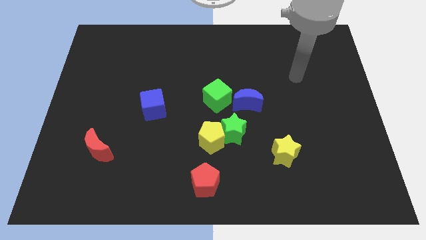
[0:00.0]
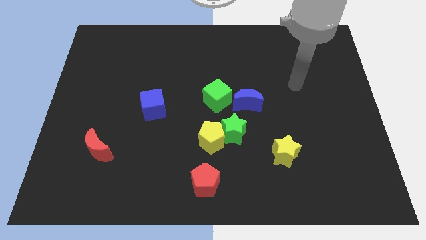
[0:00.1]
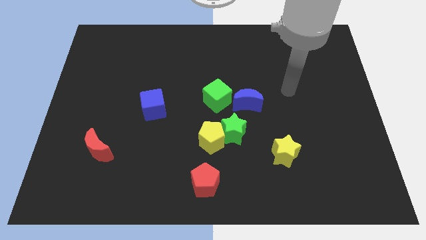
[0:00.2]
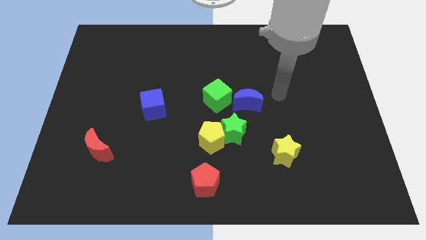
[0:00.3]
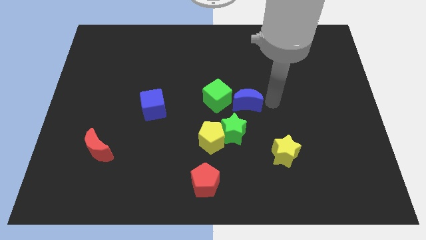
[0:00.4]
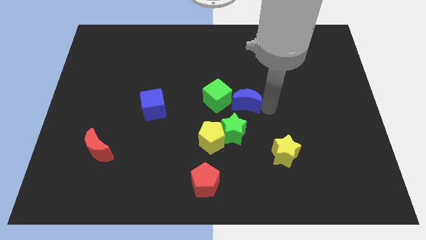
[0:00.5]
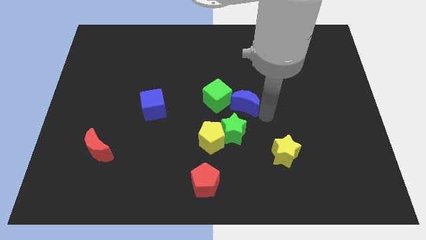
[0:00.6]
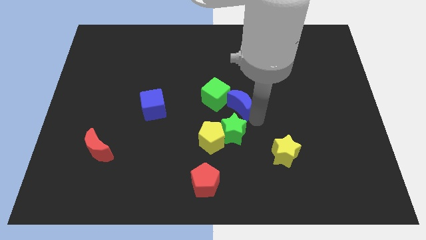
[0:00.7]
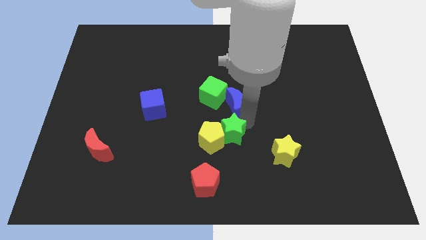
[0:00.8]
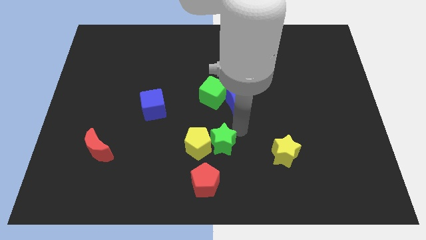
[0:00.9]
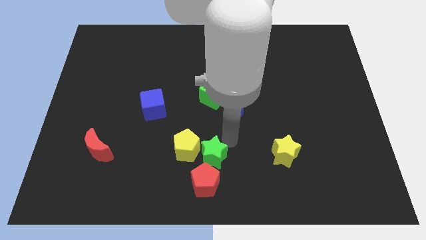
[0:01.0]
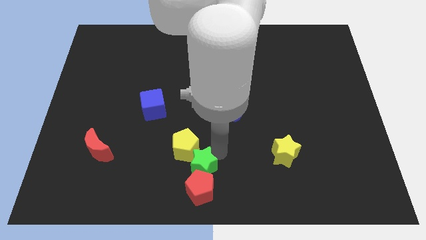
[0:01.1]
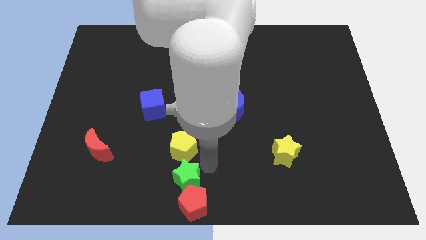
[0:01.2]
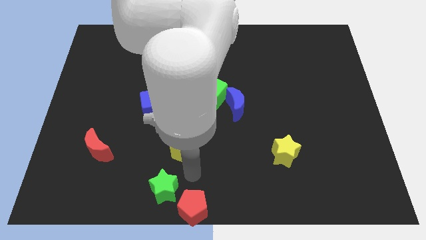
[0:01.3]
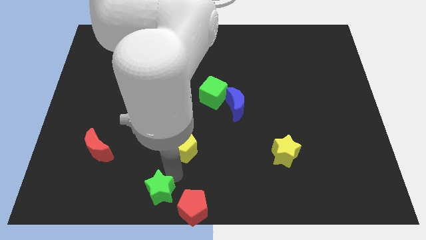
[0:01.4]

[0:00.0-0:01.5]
move the yellow pentagon away from the green star

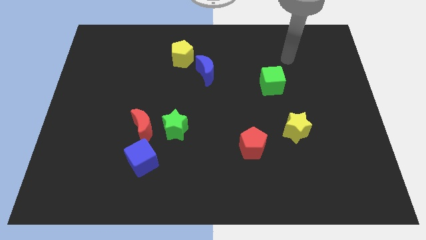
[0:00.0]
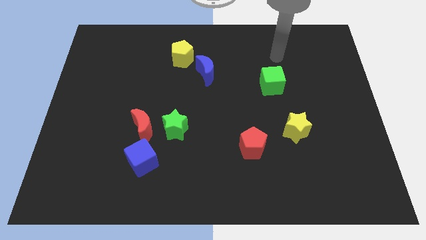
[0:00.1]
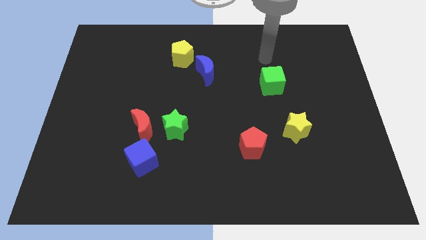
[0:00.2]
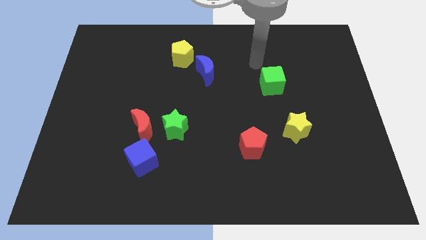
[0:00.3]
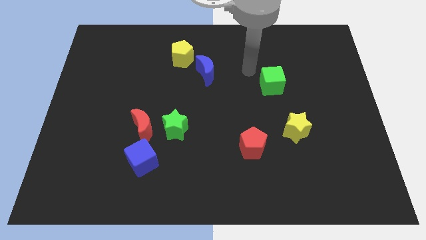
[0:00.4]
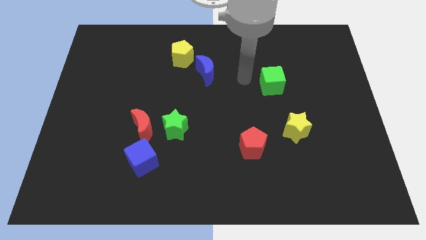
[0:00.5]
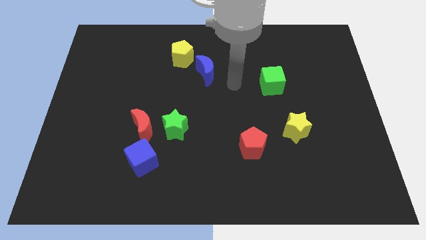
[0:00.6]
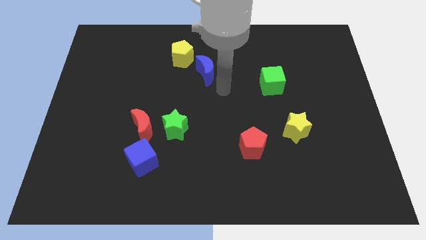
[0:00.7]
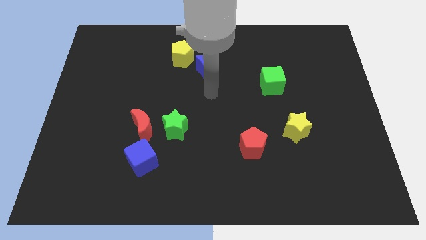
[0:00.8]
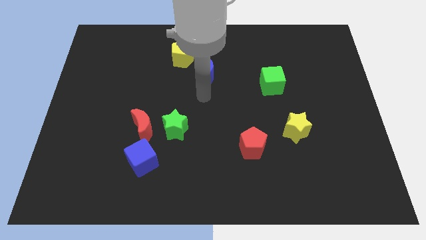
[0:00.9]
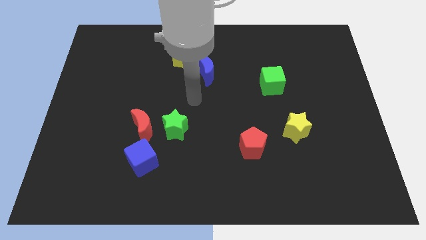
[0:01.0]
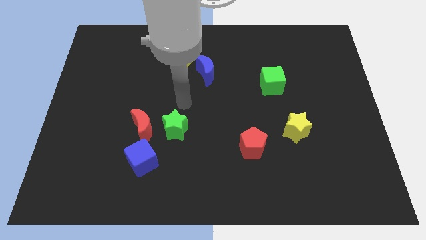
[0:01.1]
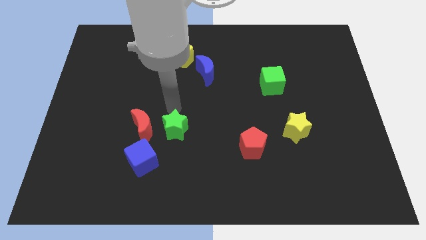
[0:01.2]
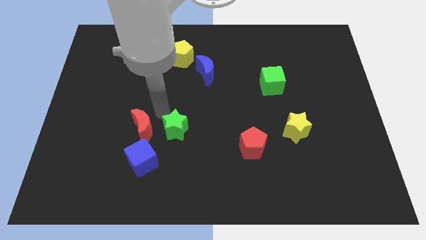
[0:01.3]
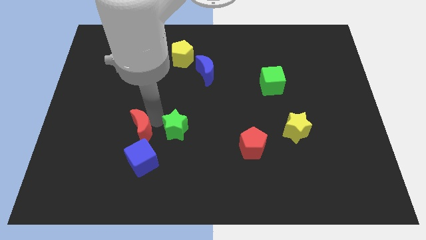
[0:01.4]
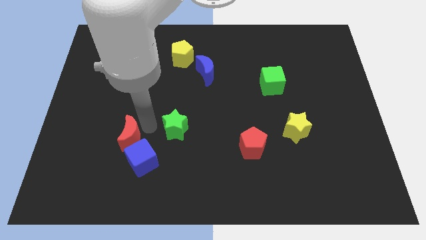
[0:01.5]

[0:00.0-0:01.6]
move the green star away from the red moon

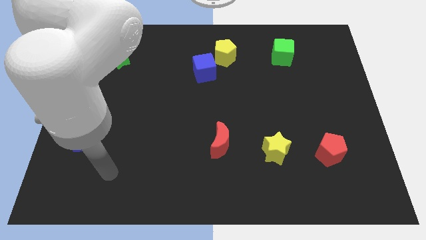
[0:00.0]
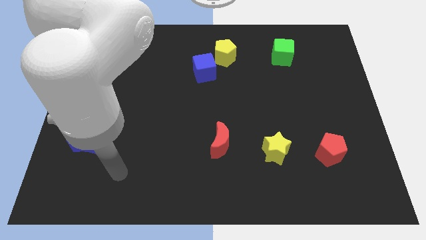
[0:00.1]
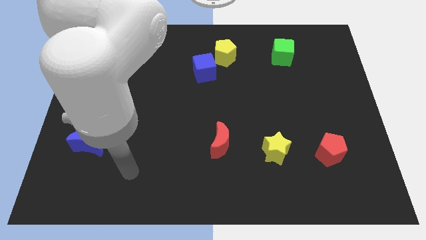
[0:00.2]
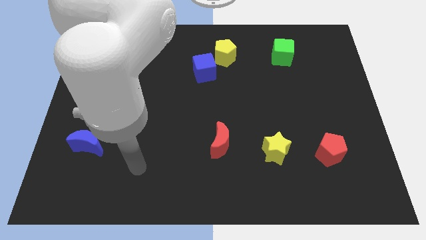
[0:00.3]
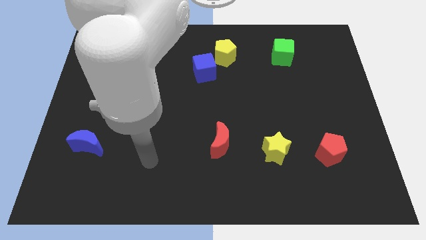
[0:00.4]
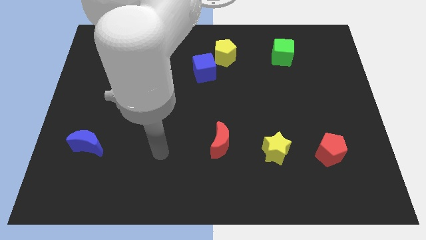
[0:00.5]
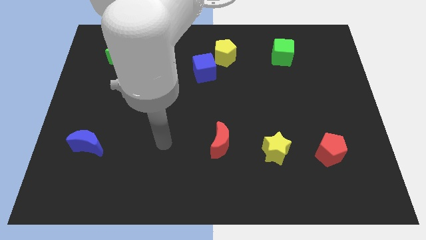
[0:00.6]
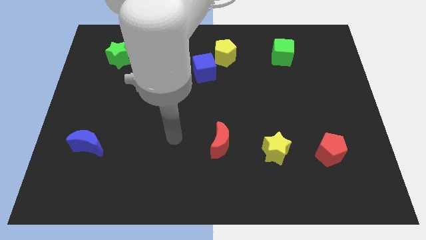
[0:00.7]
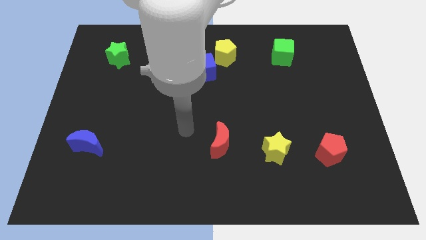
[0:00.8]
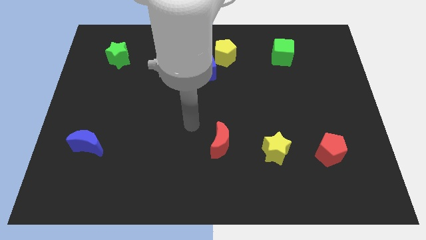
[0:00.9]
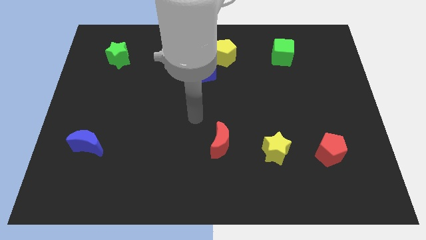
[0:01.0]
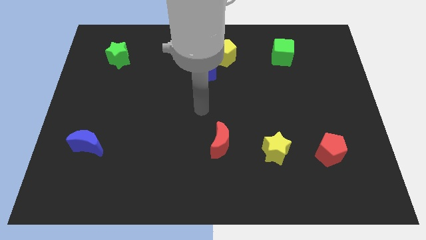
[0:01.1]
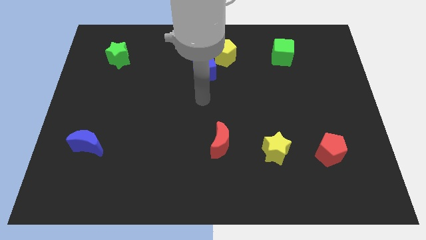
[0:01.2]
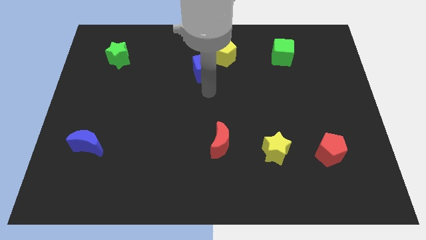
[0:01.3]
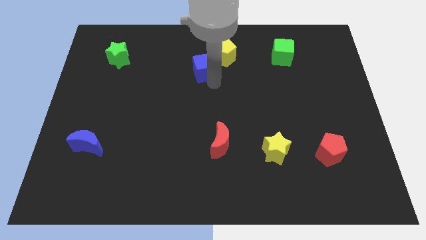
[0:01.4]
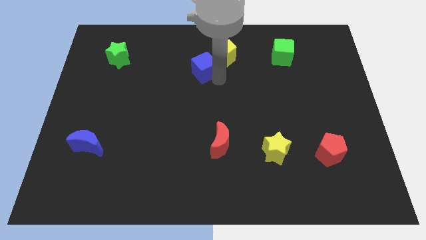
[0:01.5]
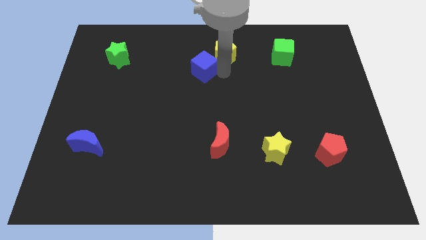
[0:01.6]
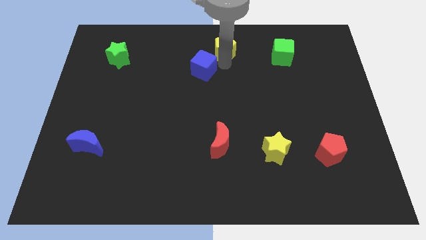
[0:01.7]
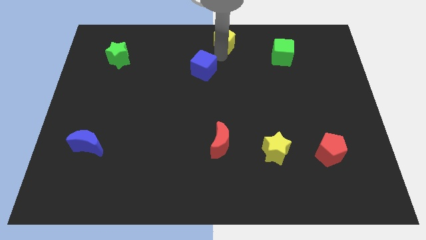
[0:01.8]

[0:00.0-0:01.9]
pull the blue cube apart from the yellow pentagon

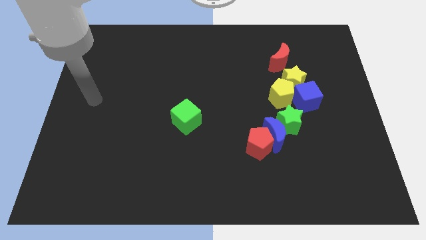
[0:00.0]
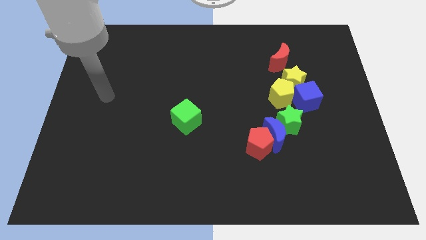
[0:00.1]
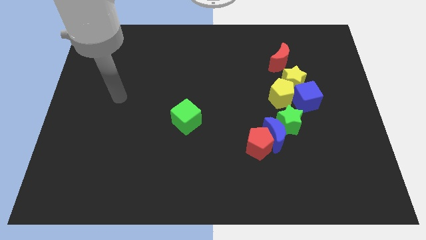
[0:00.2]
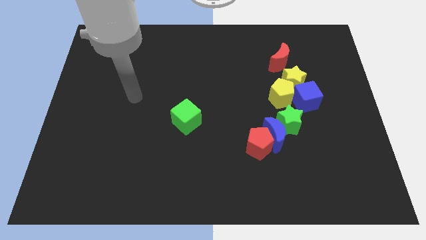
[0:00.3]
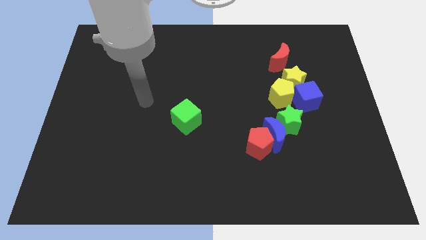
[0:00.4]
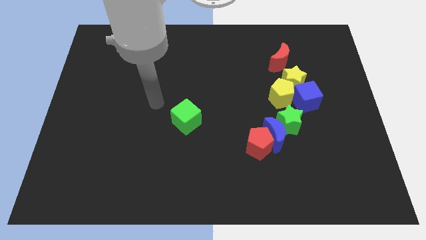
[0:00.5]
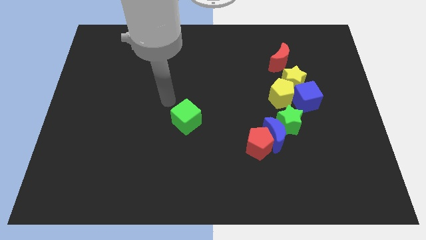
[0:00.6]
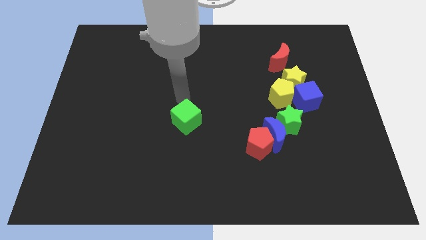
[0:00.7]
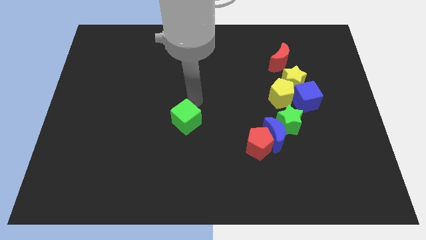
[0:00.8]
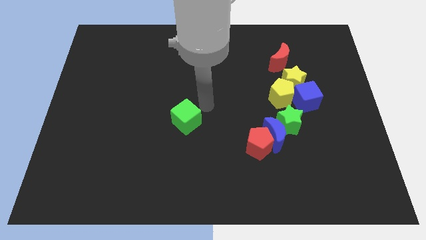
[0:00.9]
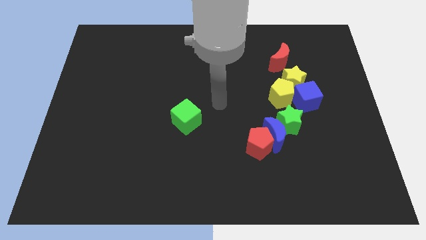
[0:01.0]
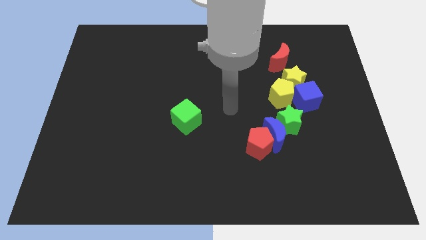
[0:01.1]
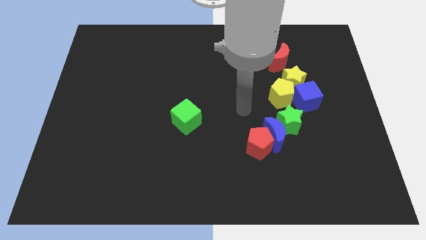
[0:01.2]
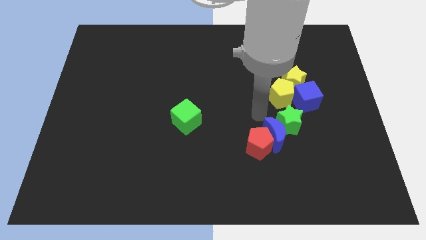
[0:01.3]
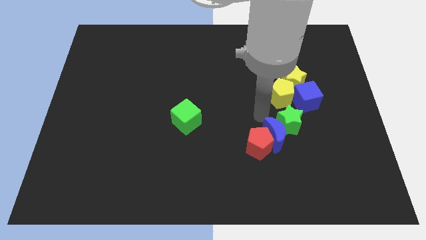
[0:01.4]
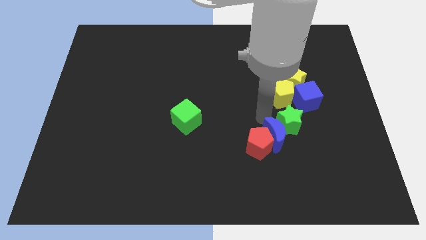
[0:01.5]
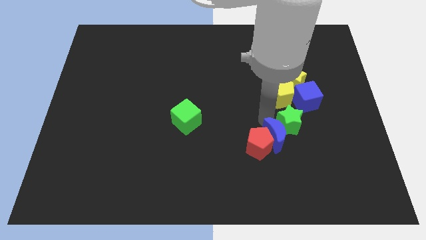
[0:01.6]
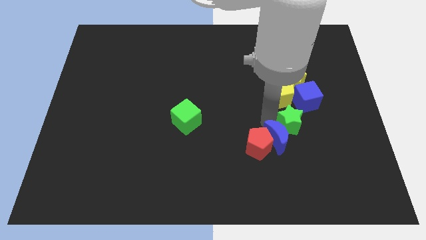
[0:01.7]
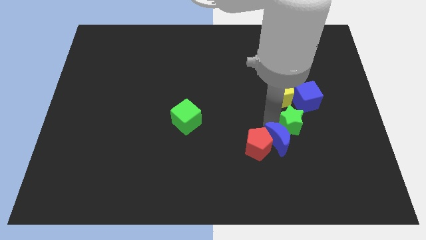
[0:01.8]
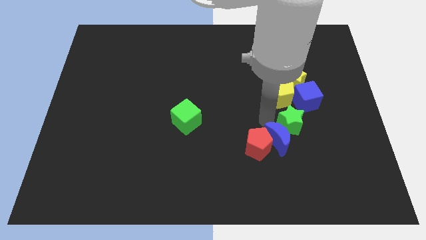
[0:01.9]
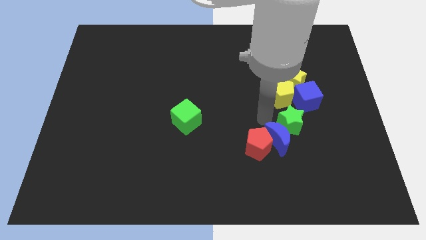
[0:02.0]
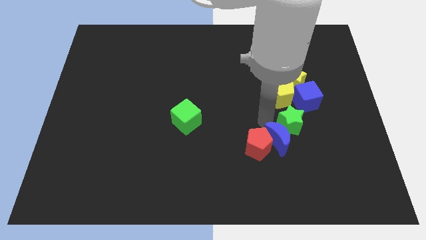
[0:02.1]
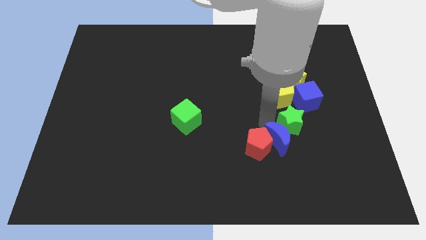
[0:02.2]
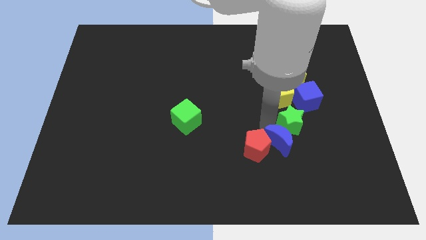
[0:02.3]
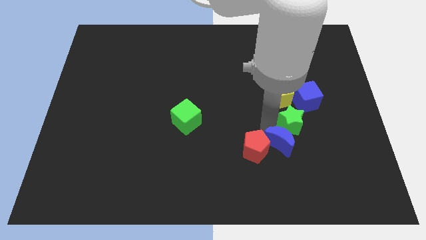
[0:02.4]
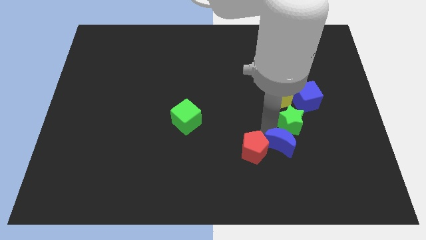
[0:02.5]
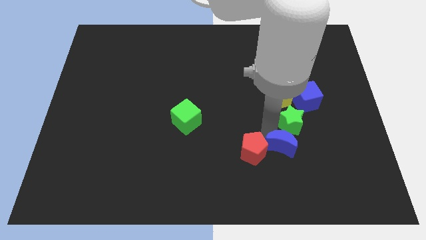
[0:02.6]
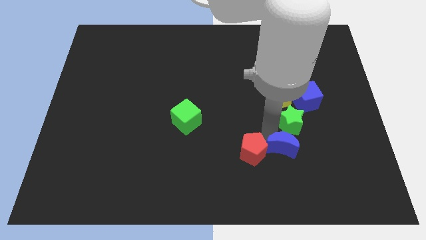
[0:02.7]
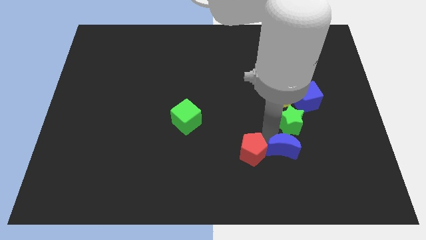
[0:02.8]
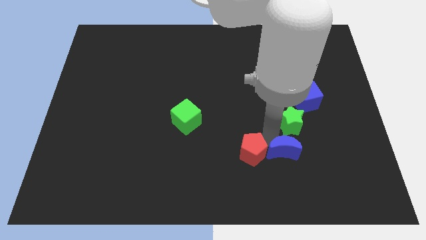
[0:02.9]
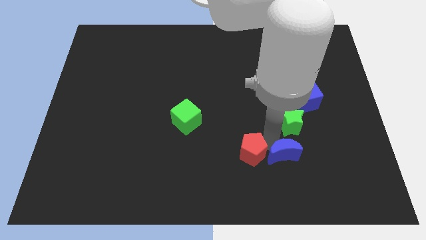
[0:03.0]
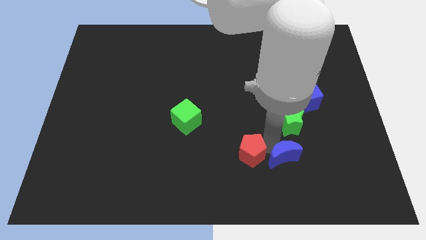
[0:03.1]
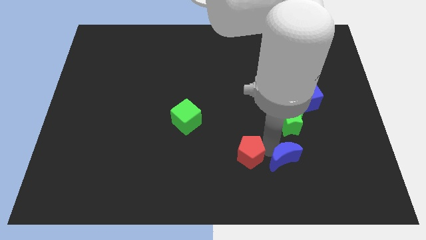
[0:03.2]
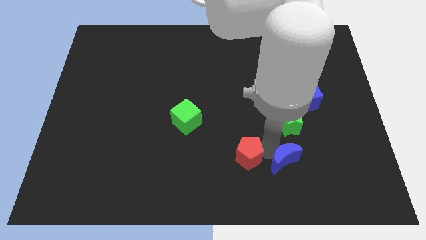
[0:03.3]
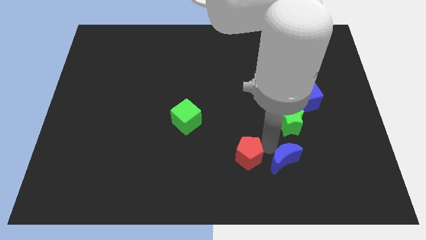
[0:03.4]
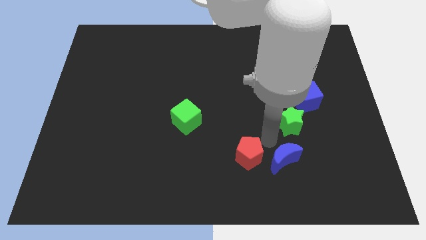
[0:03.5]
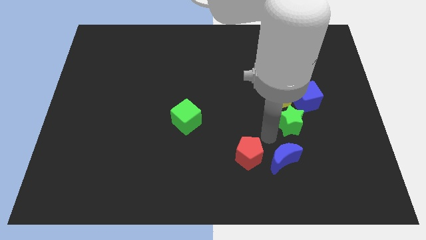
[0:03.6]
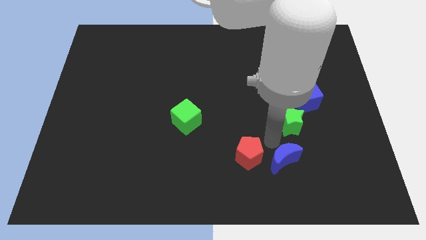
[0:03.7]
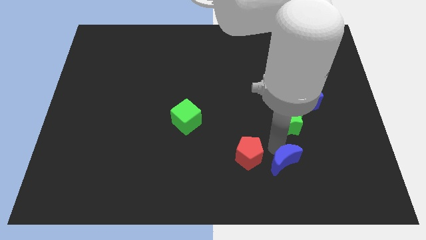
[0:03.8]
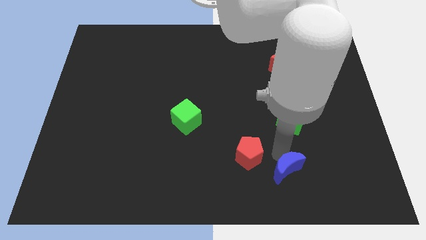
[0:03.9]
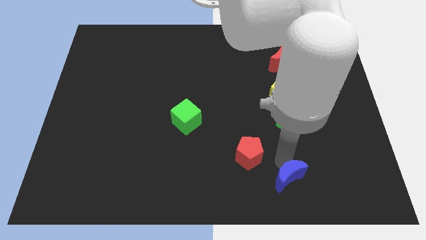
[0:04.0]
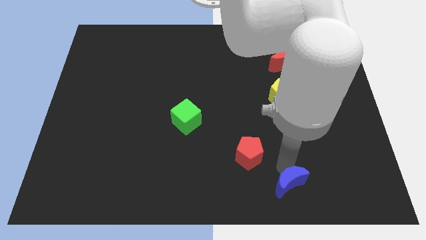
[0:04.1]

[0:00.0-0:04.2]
separate the blue moon from the red pentagon and green star
